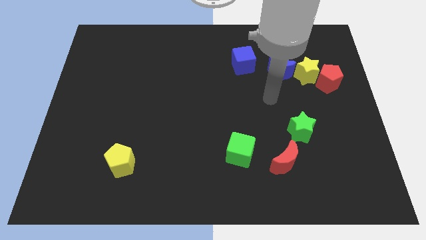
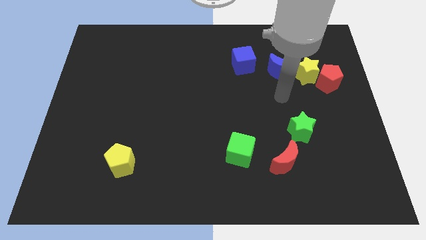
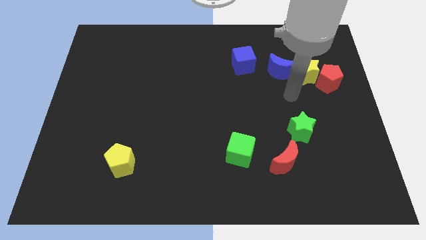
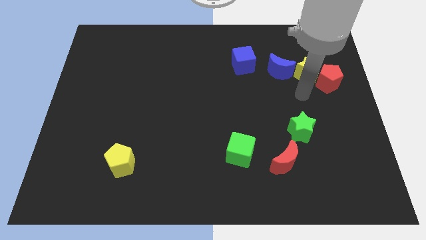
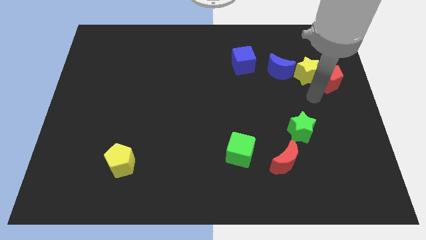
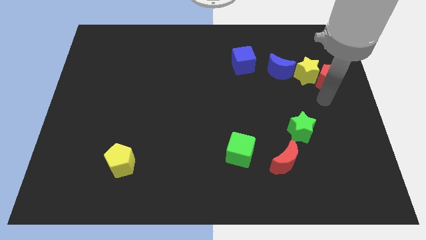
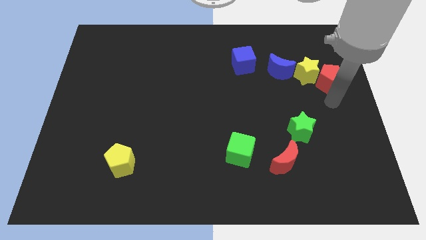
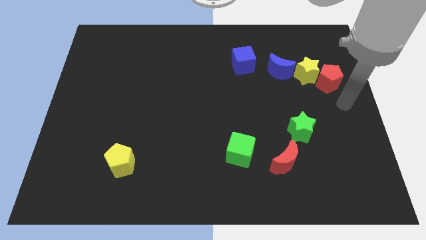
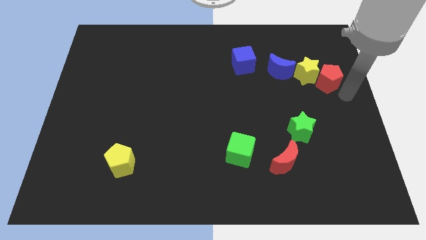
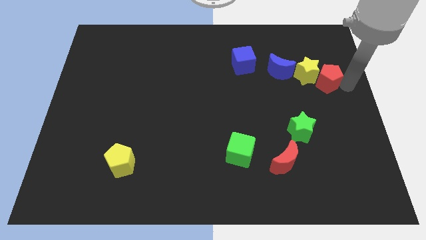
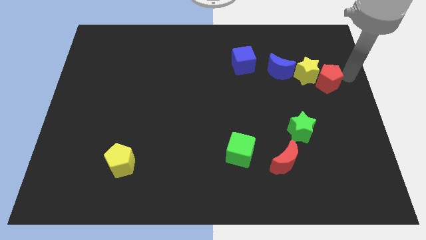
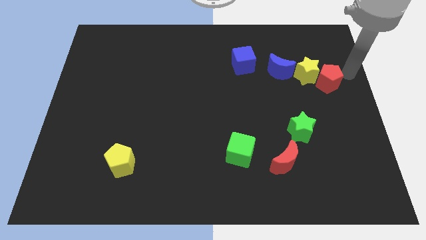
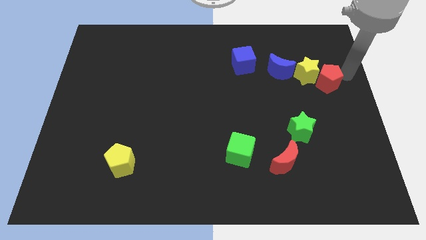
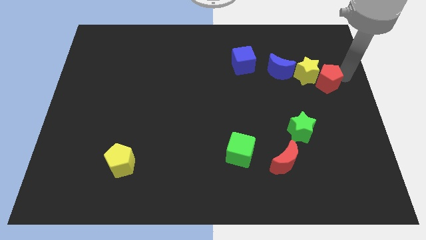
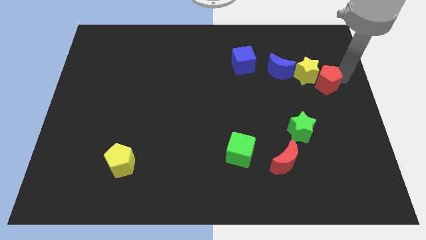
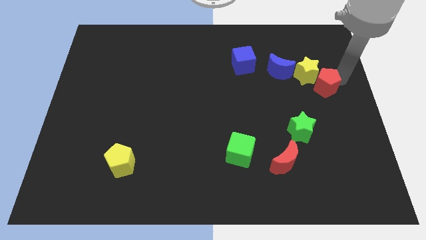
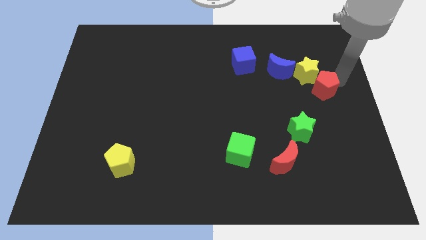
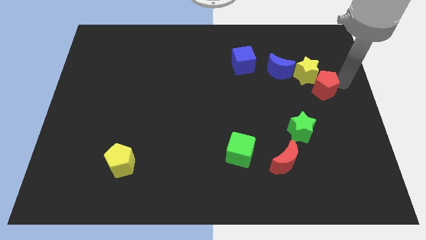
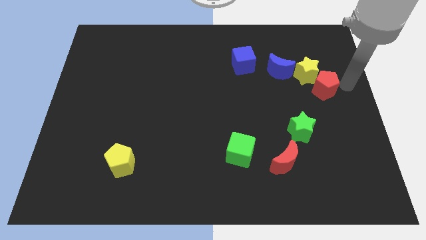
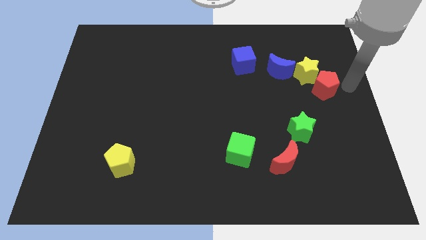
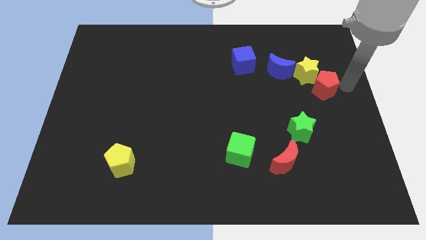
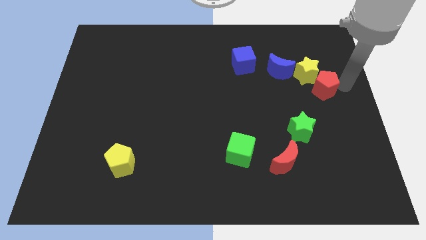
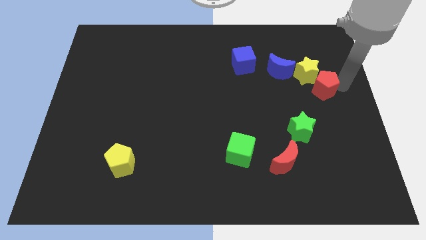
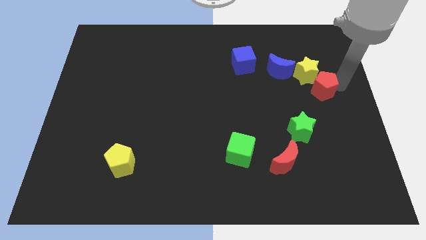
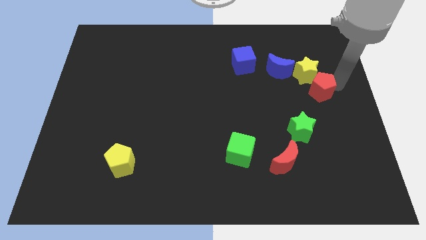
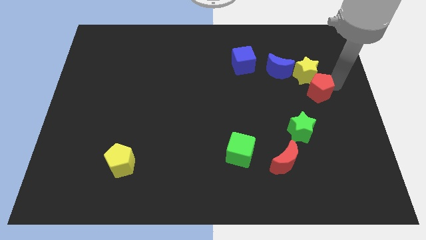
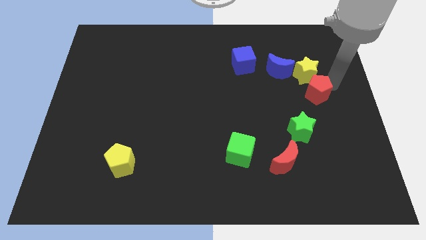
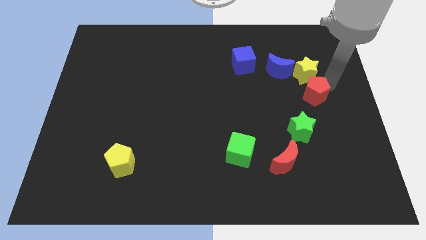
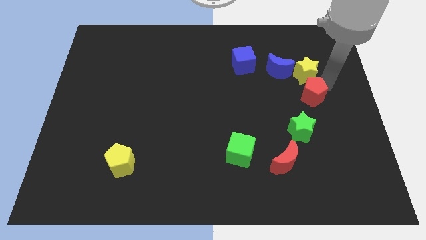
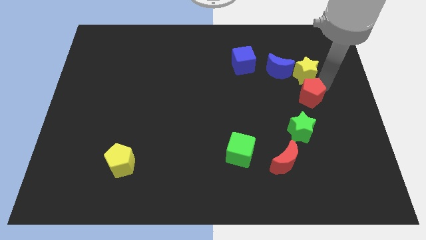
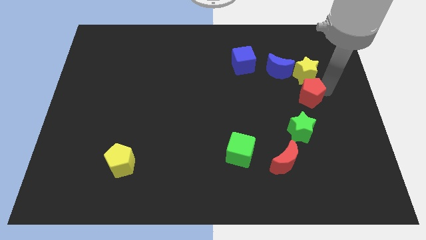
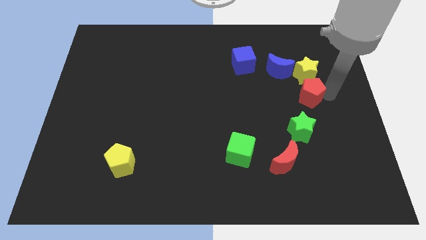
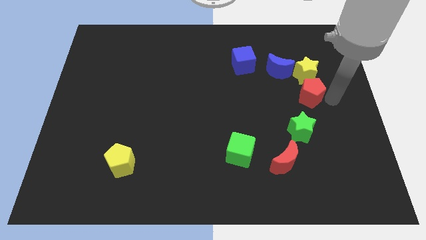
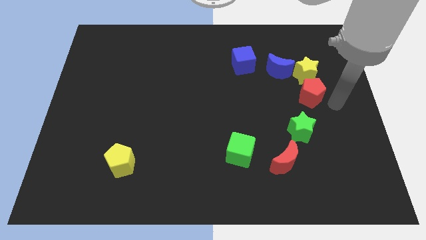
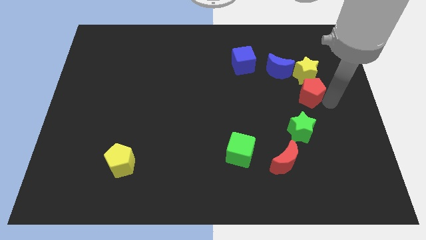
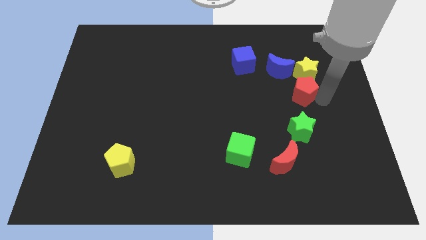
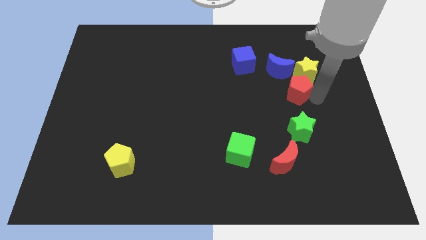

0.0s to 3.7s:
slide the red pentagon a little to the left

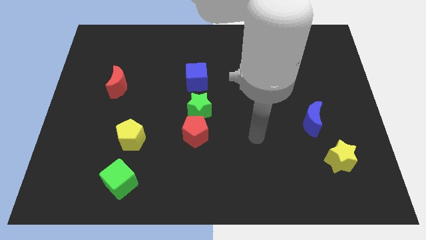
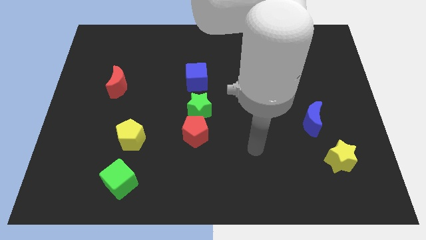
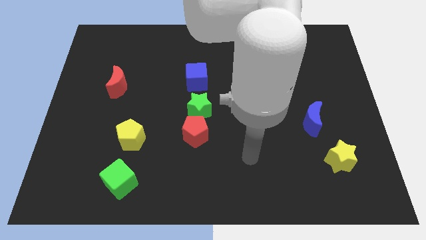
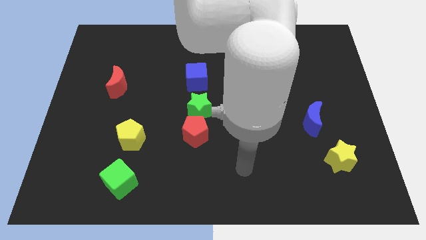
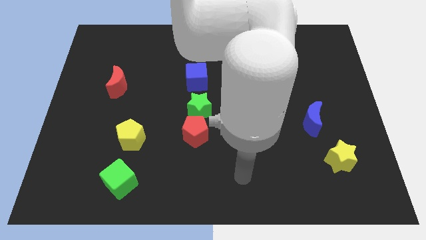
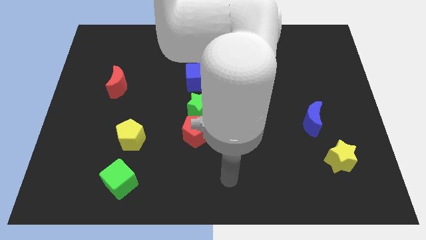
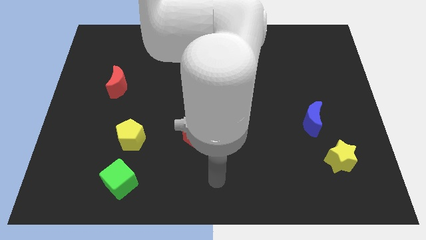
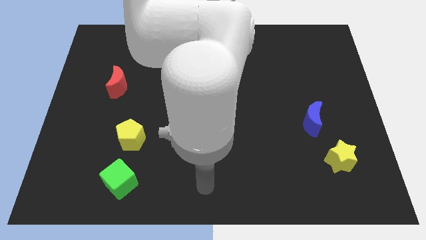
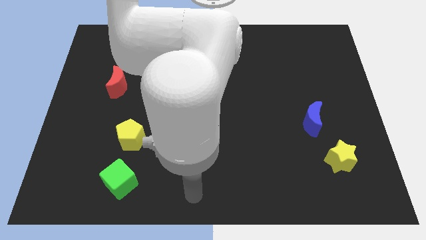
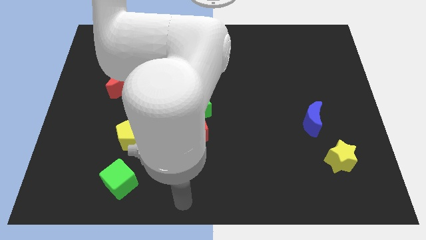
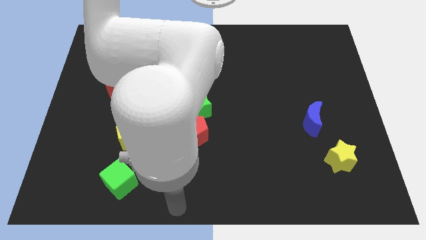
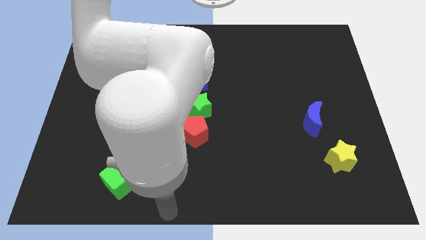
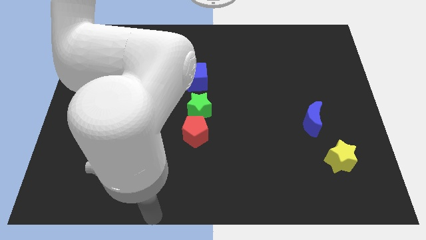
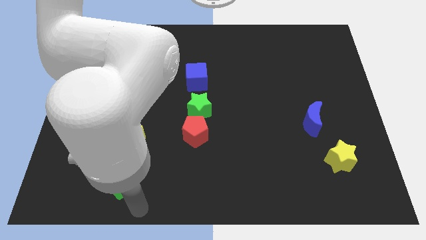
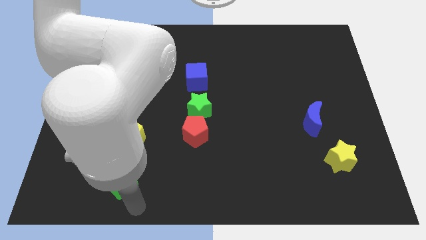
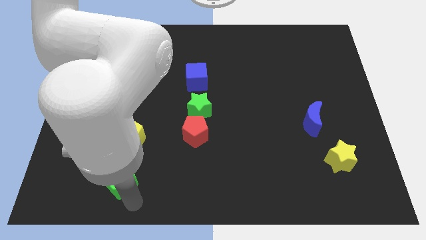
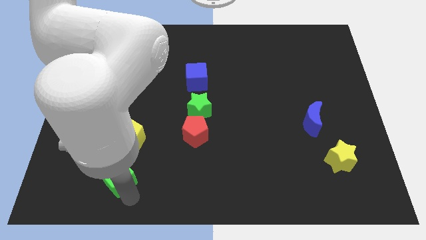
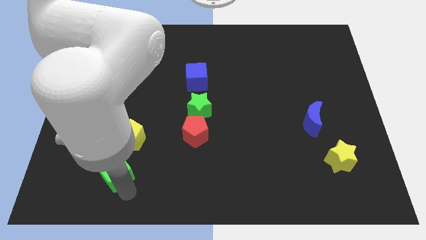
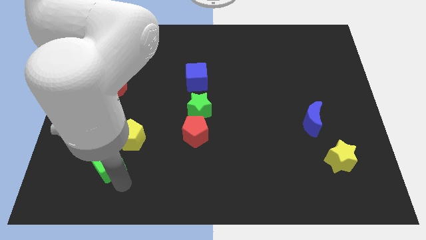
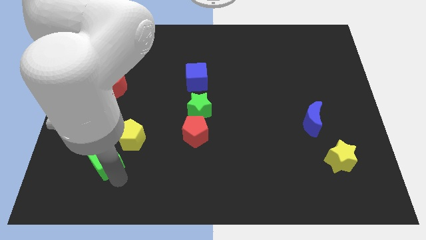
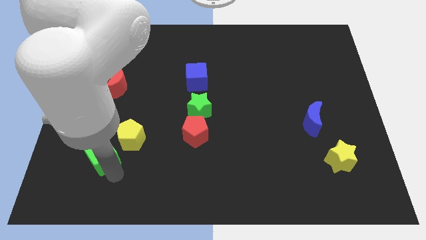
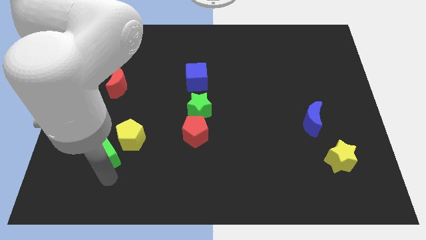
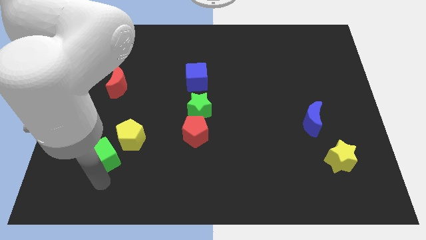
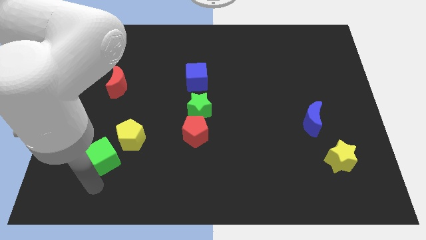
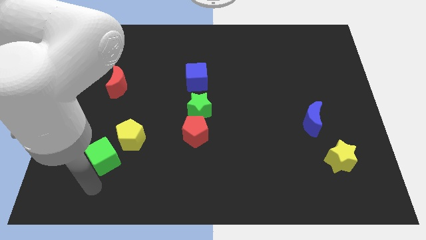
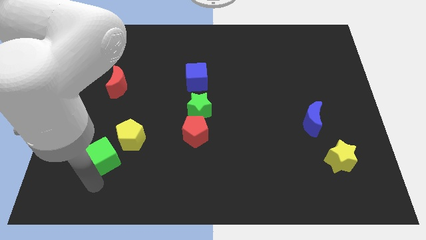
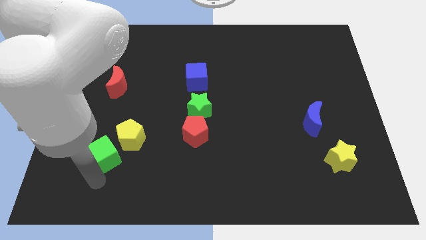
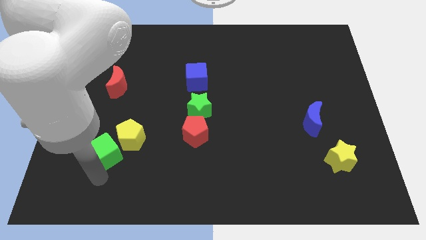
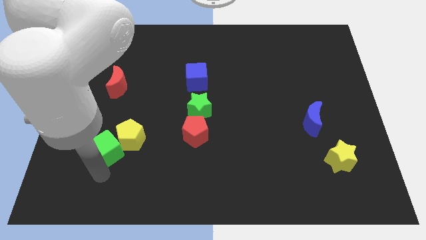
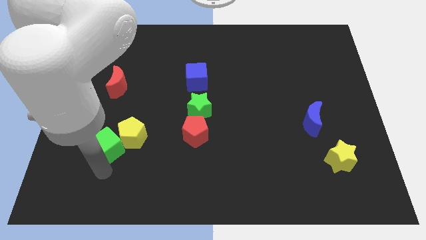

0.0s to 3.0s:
slightly push the green cube up

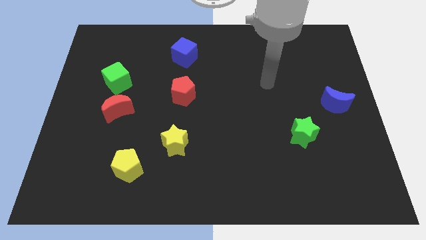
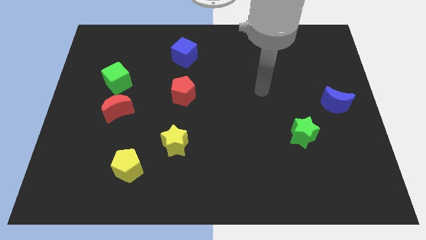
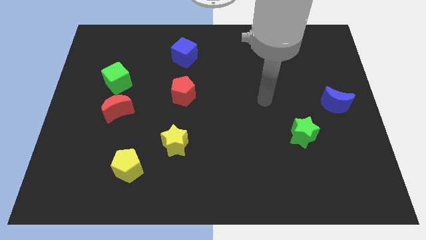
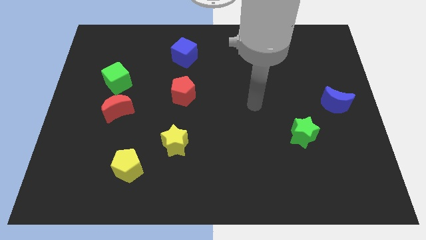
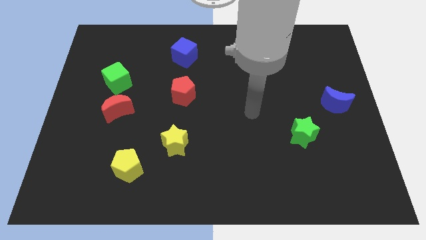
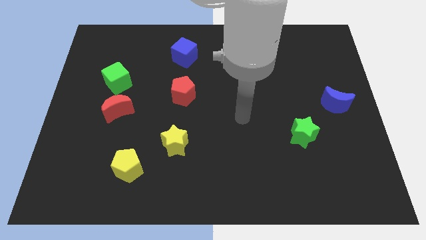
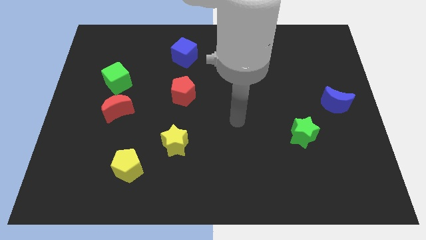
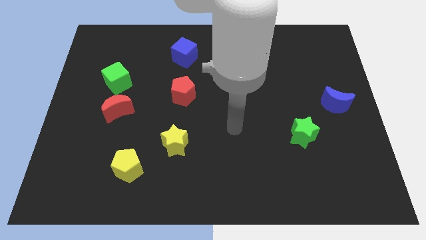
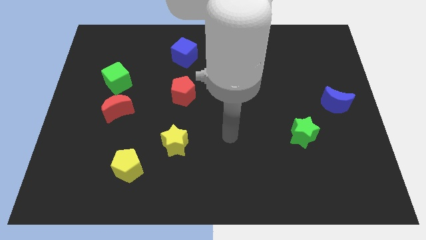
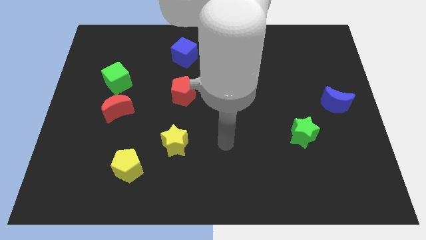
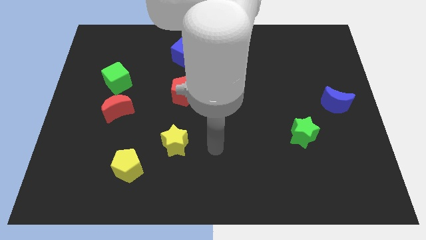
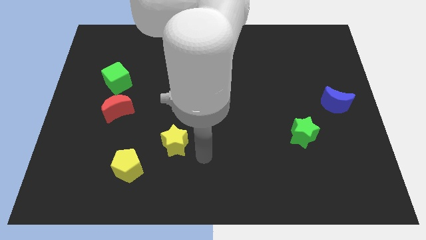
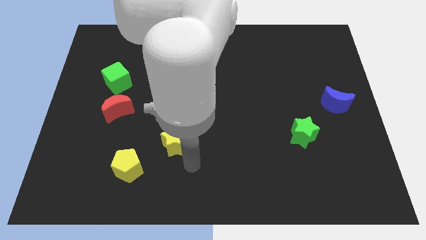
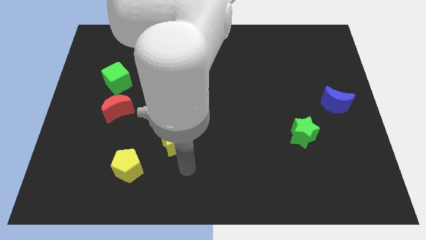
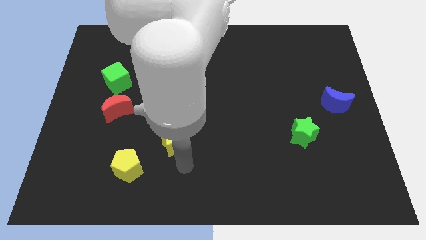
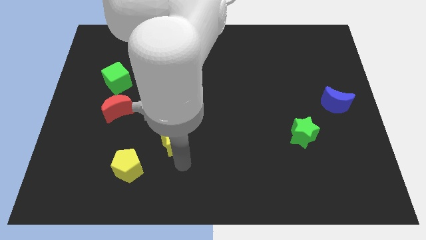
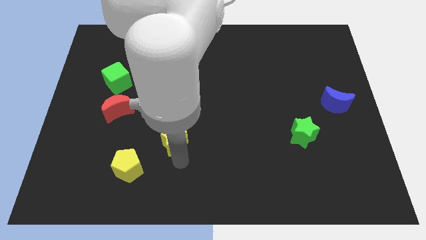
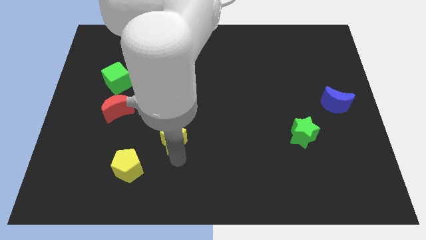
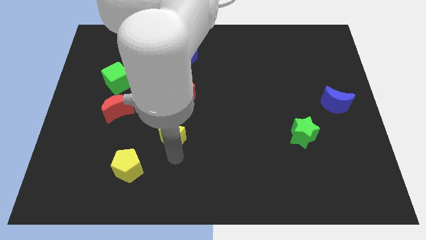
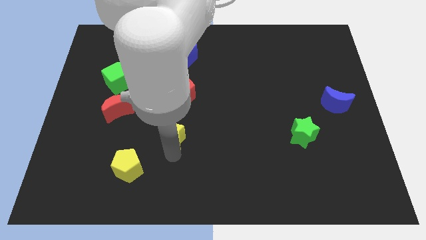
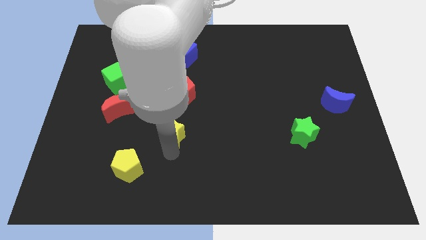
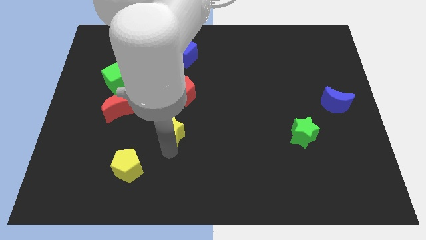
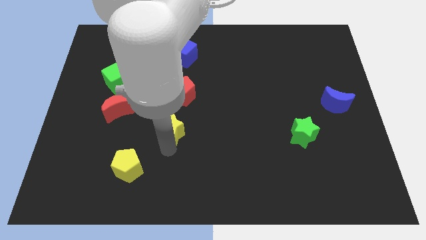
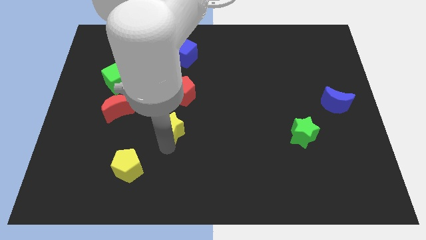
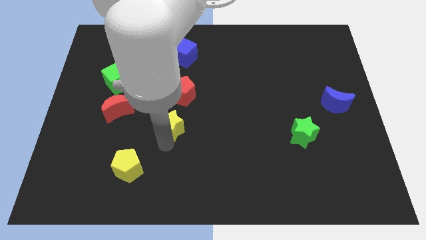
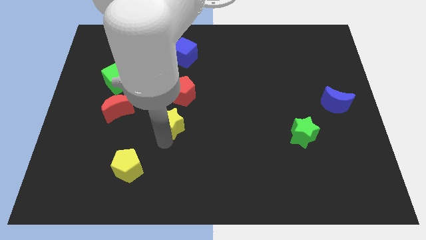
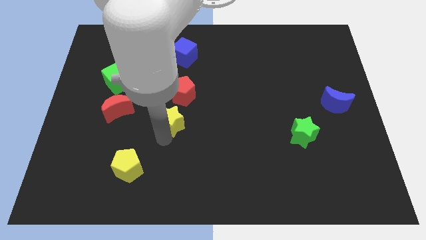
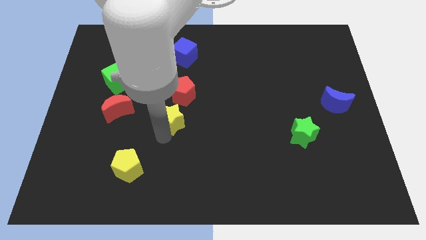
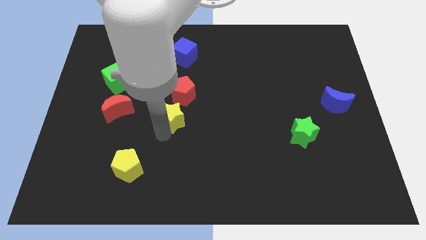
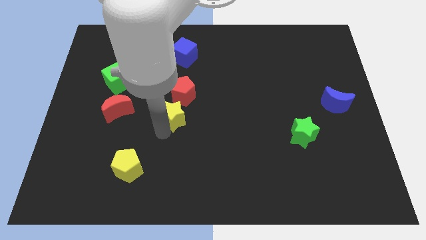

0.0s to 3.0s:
slightly move the yellow star upwards
